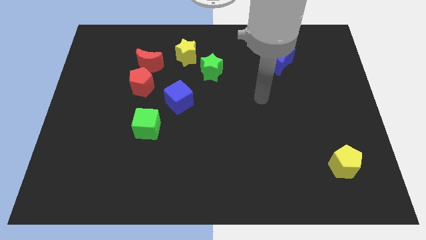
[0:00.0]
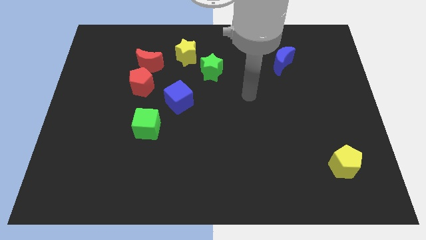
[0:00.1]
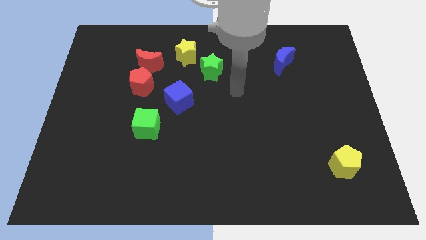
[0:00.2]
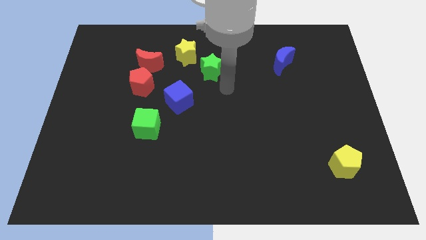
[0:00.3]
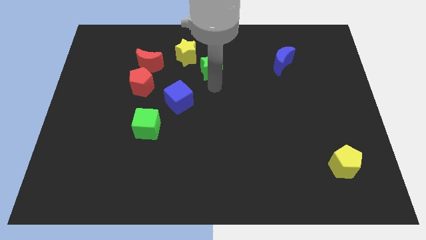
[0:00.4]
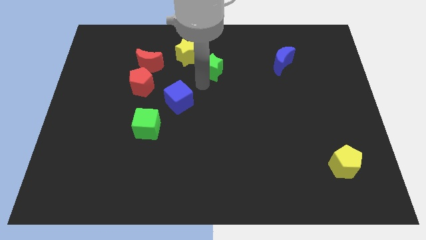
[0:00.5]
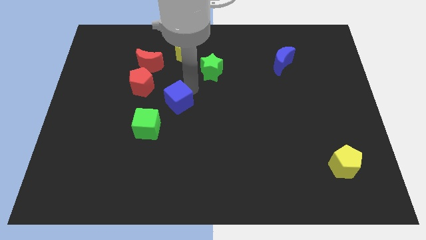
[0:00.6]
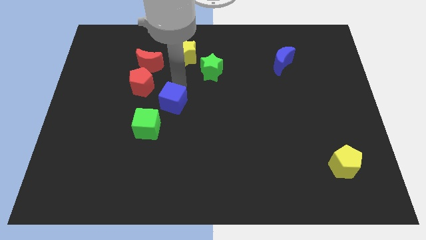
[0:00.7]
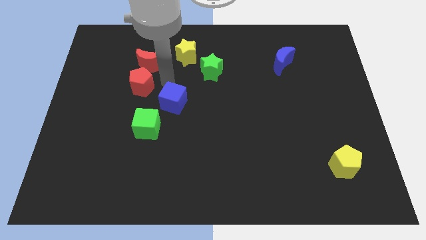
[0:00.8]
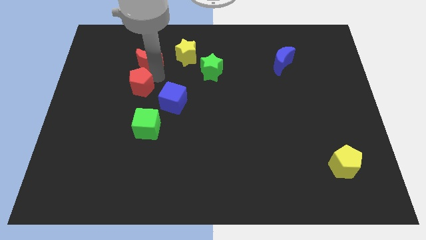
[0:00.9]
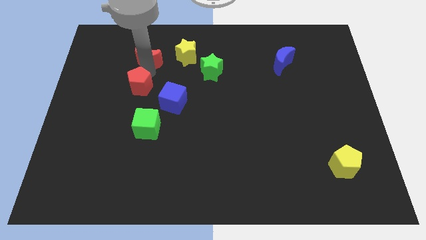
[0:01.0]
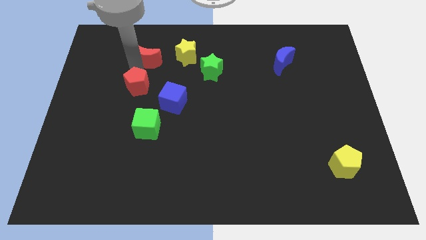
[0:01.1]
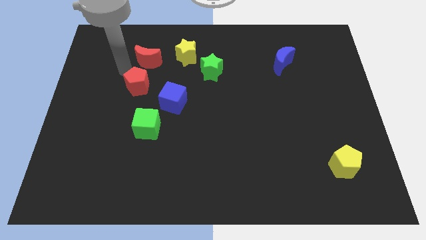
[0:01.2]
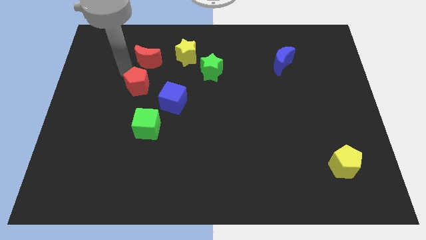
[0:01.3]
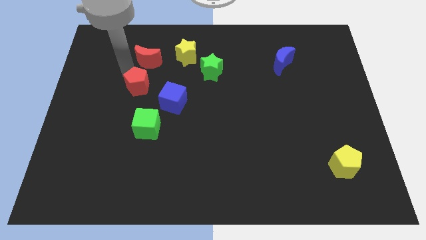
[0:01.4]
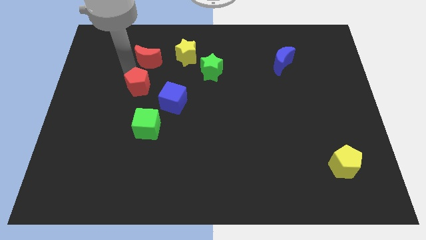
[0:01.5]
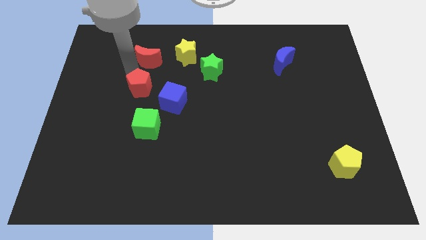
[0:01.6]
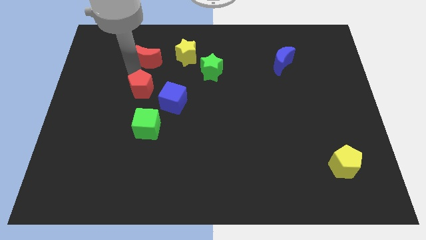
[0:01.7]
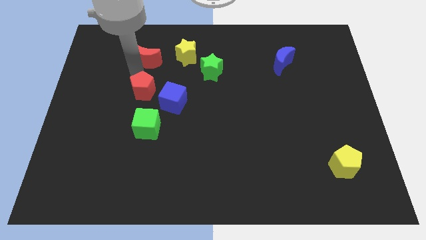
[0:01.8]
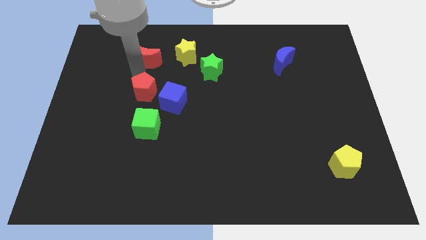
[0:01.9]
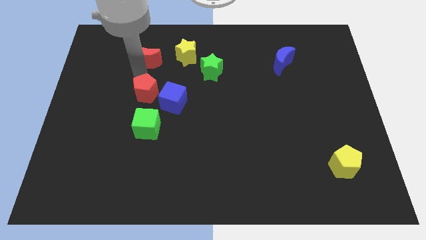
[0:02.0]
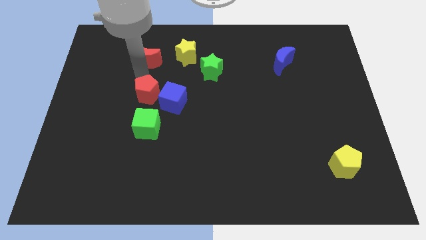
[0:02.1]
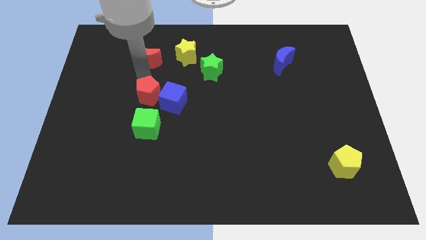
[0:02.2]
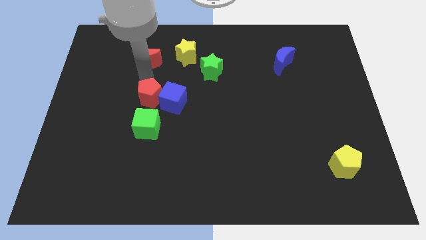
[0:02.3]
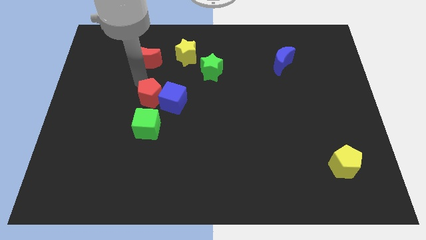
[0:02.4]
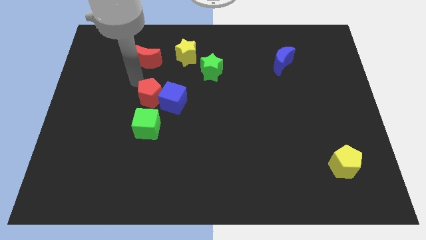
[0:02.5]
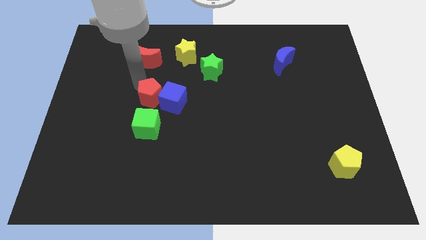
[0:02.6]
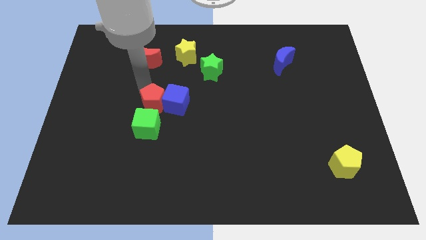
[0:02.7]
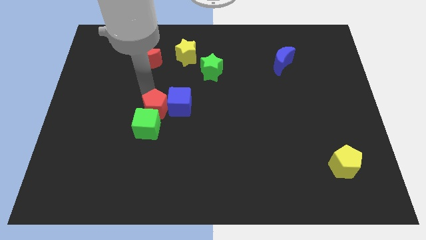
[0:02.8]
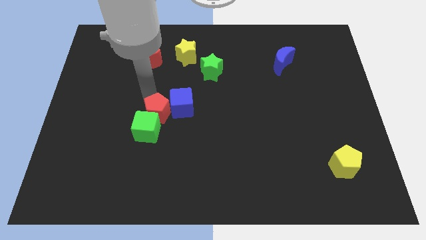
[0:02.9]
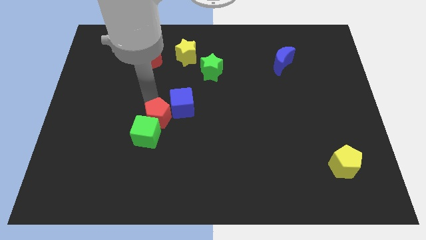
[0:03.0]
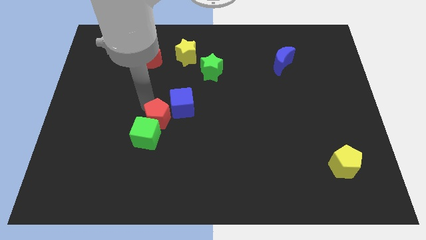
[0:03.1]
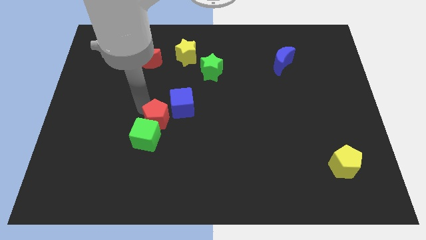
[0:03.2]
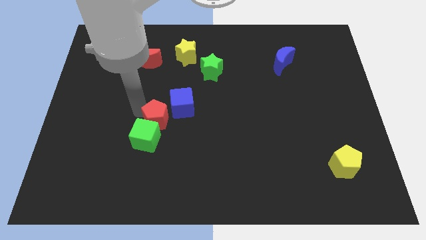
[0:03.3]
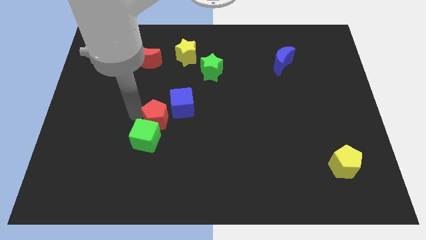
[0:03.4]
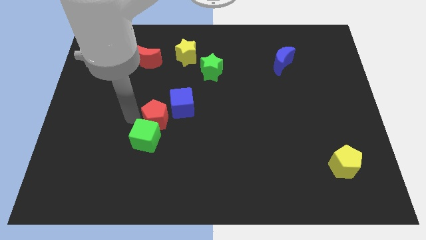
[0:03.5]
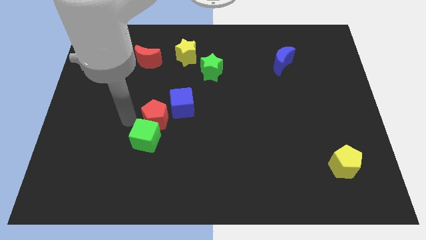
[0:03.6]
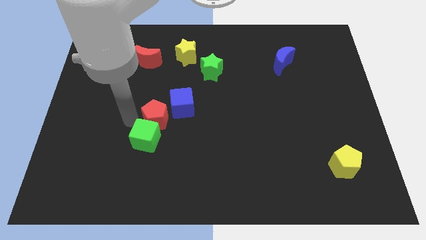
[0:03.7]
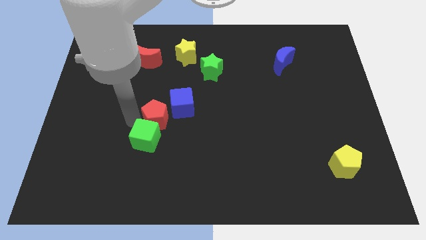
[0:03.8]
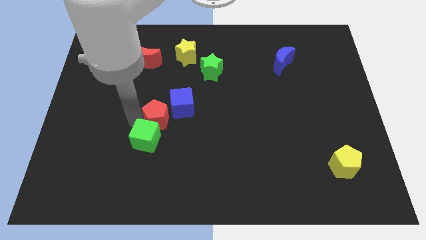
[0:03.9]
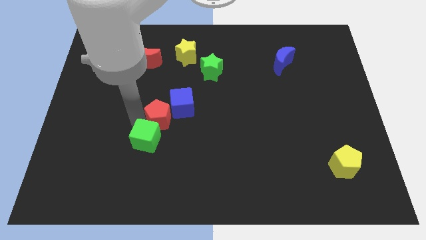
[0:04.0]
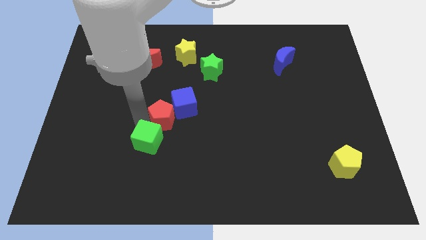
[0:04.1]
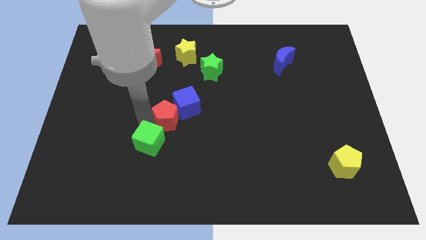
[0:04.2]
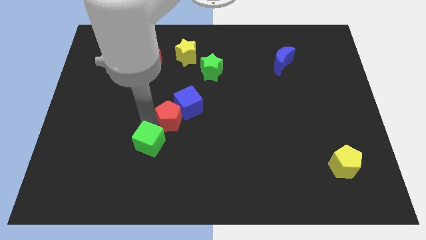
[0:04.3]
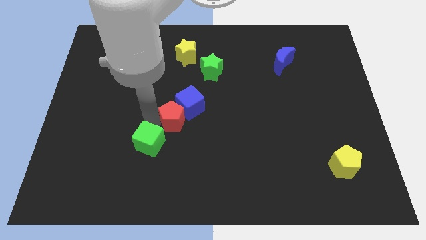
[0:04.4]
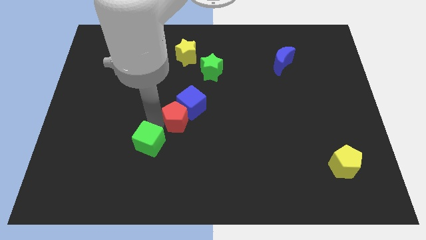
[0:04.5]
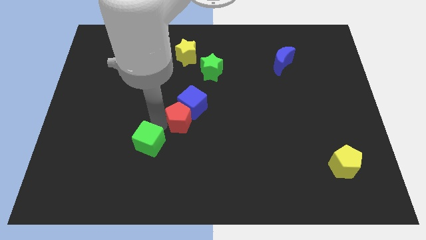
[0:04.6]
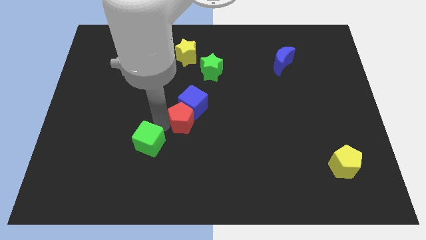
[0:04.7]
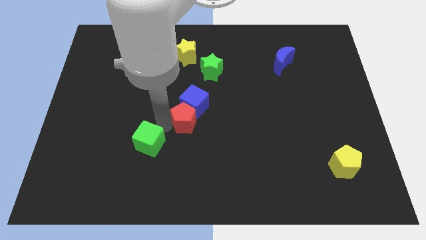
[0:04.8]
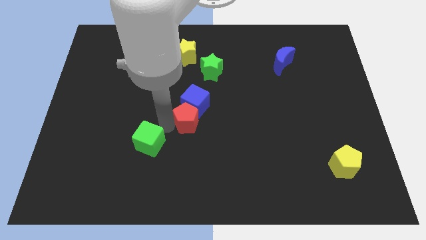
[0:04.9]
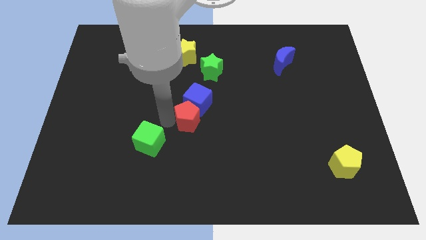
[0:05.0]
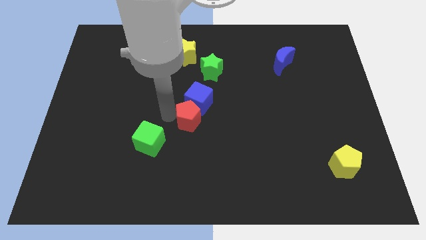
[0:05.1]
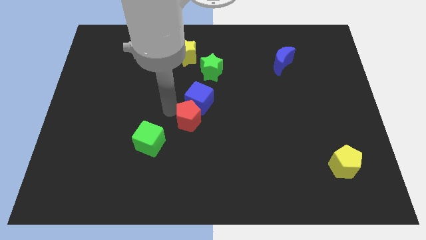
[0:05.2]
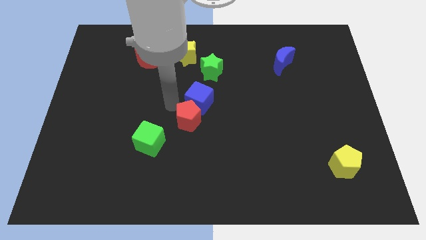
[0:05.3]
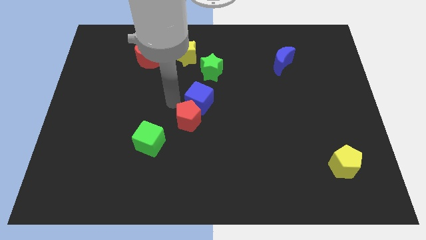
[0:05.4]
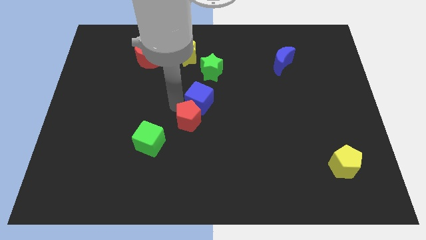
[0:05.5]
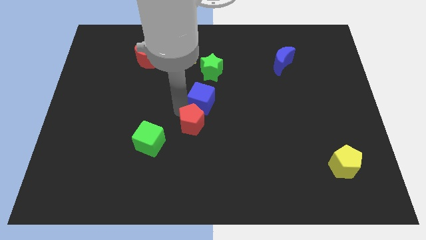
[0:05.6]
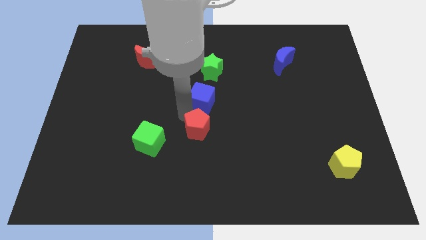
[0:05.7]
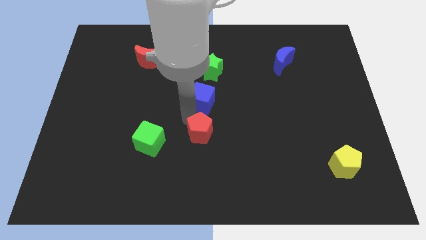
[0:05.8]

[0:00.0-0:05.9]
push the red pentagon downwards and then right

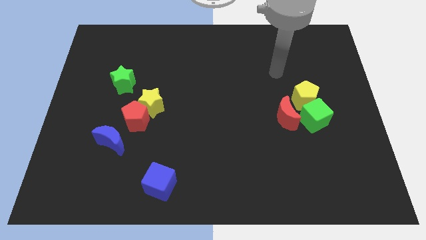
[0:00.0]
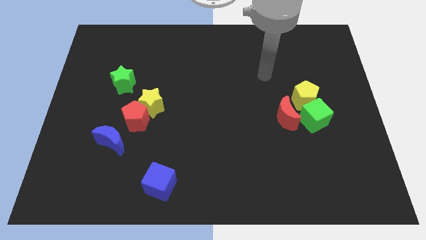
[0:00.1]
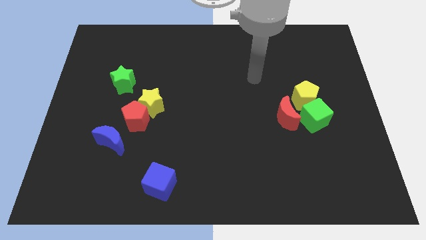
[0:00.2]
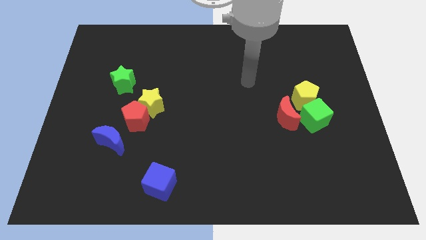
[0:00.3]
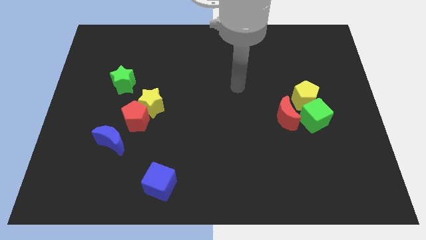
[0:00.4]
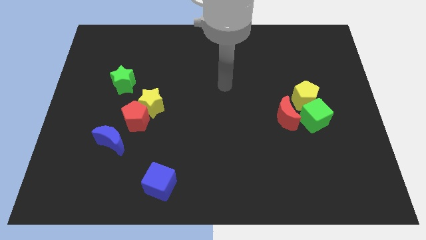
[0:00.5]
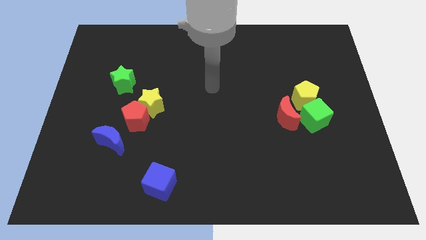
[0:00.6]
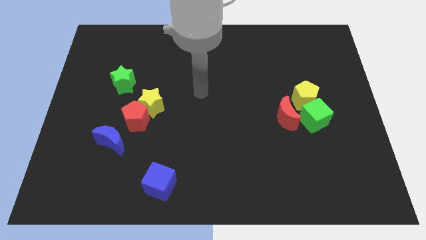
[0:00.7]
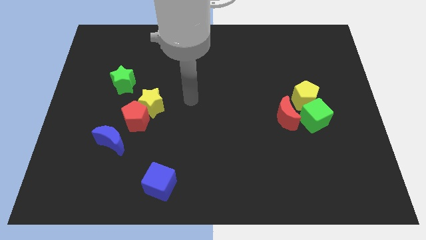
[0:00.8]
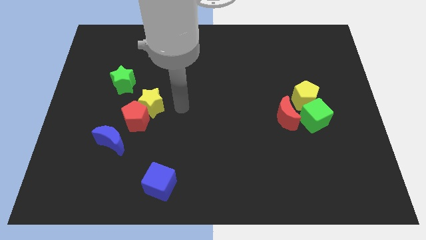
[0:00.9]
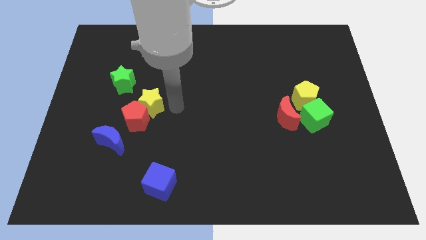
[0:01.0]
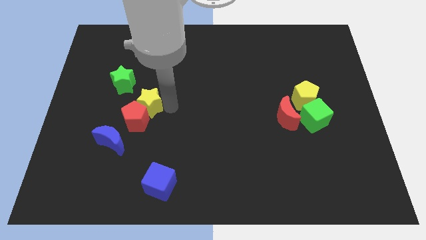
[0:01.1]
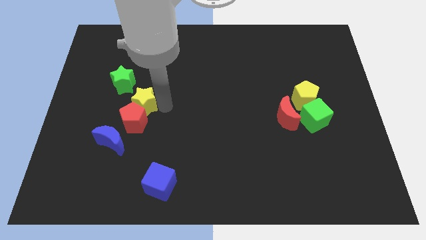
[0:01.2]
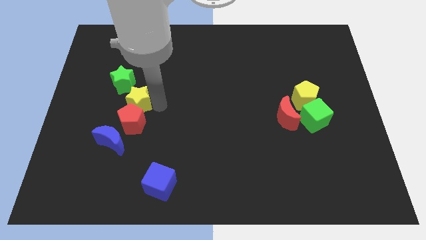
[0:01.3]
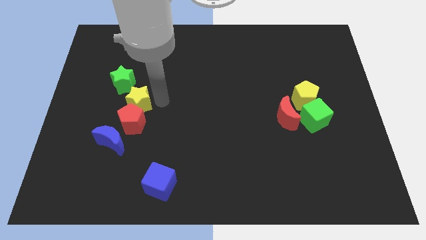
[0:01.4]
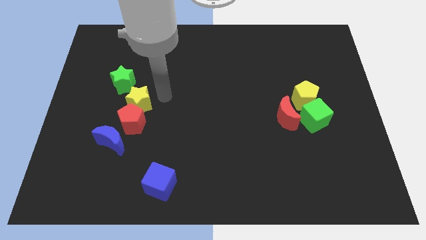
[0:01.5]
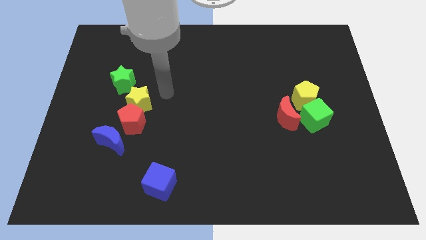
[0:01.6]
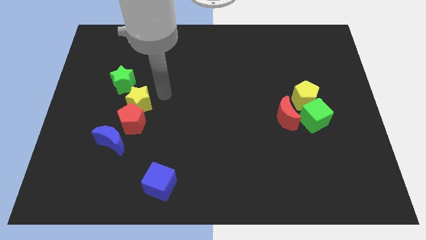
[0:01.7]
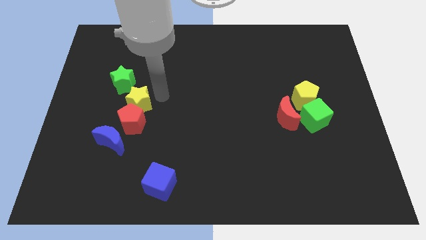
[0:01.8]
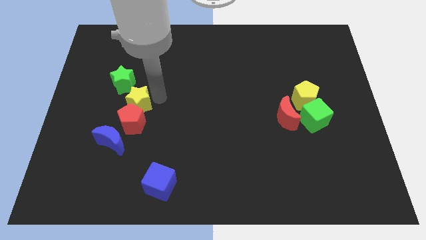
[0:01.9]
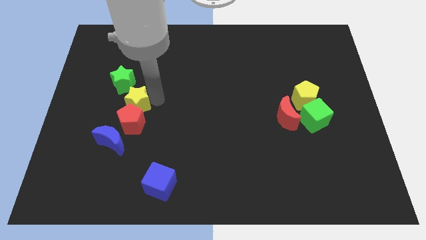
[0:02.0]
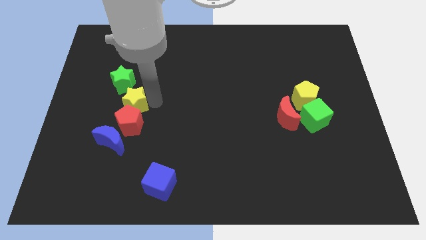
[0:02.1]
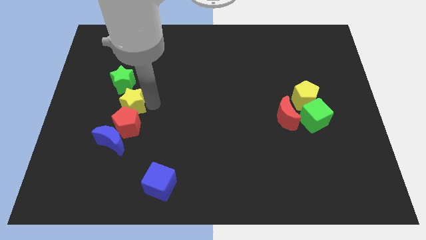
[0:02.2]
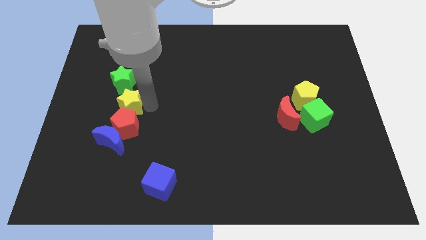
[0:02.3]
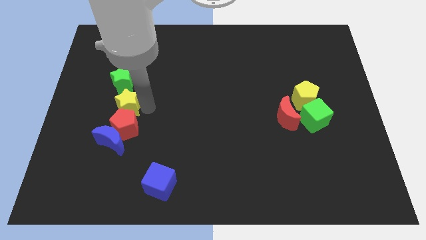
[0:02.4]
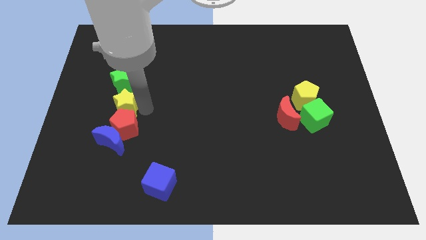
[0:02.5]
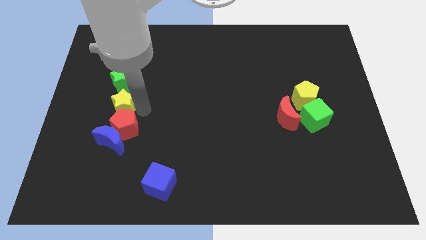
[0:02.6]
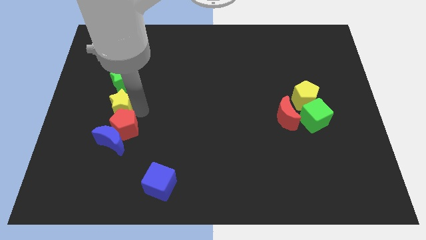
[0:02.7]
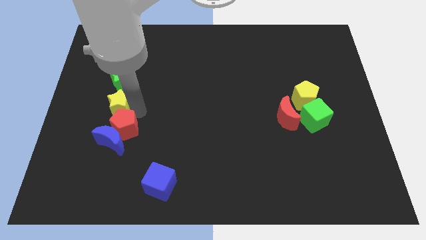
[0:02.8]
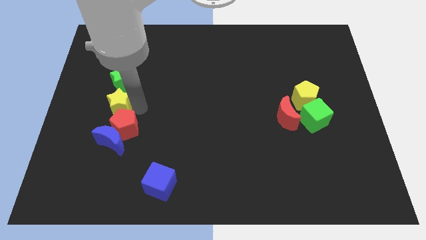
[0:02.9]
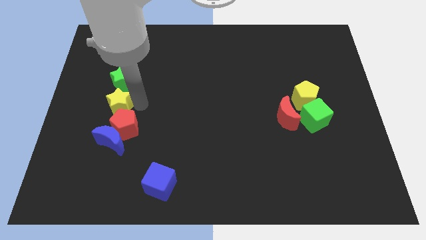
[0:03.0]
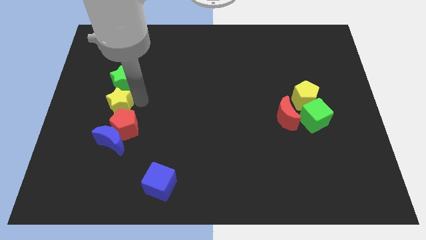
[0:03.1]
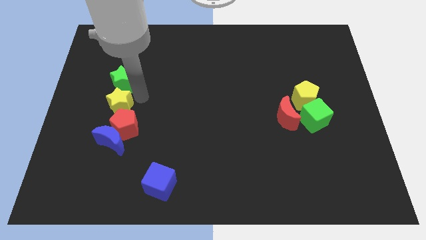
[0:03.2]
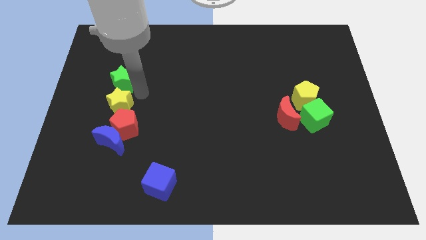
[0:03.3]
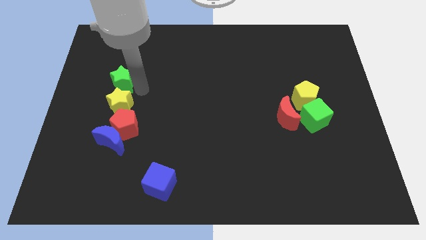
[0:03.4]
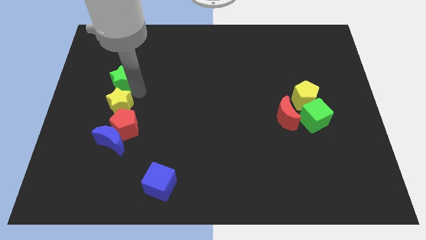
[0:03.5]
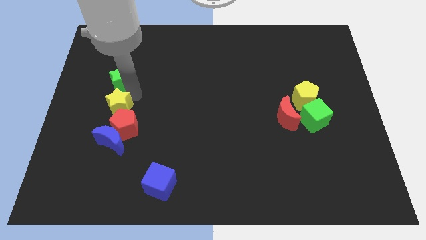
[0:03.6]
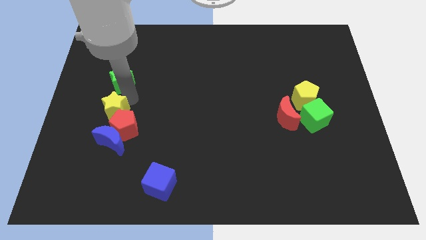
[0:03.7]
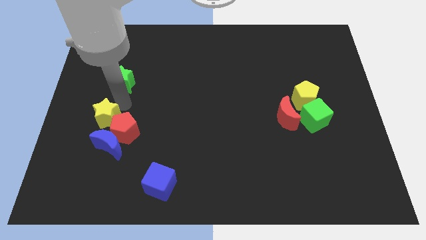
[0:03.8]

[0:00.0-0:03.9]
slightly push the yellow star down and then left
